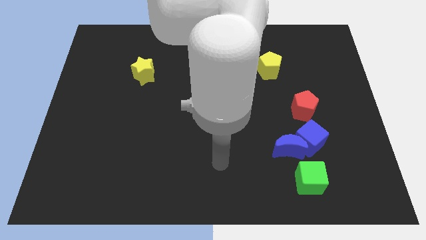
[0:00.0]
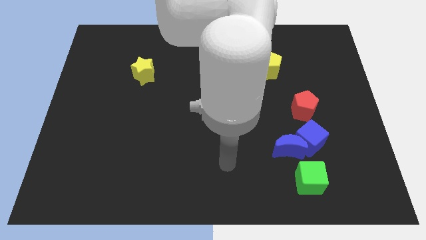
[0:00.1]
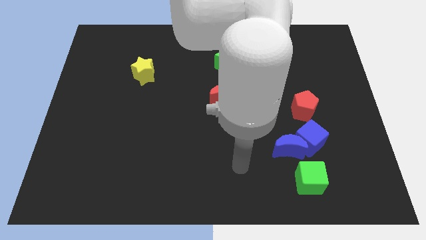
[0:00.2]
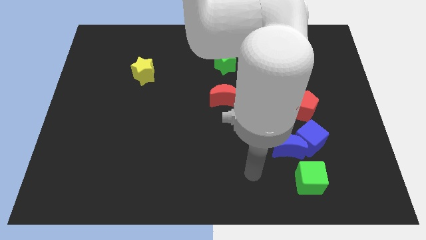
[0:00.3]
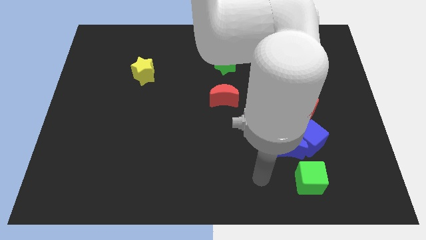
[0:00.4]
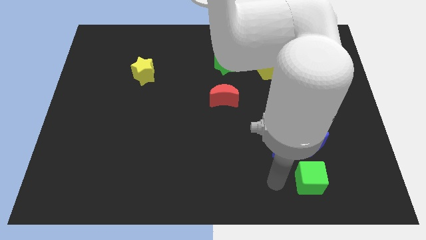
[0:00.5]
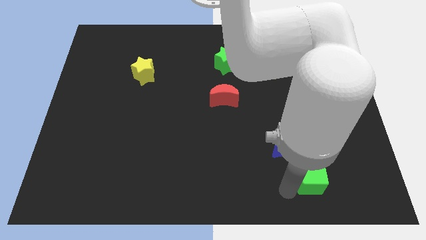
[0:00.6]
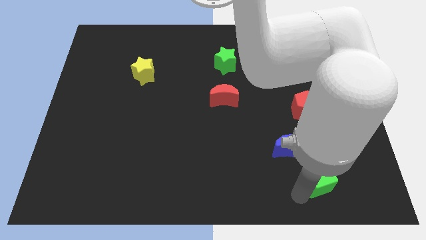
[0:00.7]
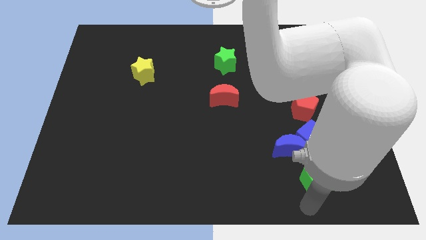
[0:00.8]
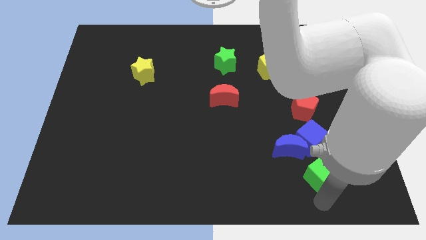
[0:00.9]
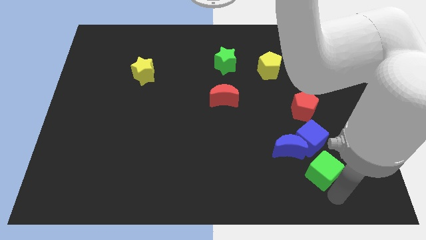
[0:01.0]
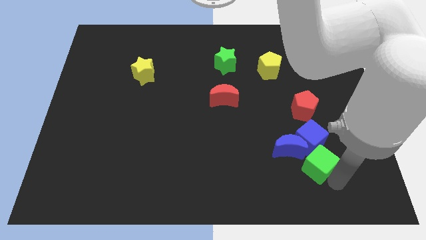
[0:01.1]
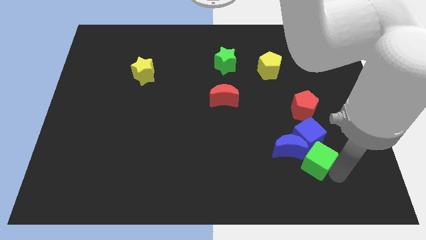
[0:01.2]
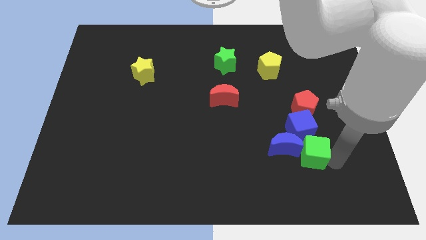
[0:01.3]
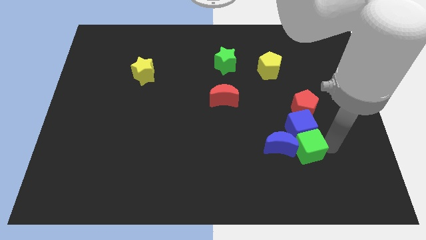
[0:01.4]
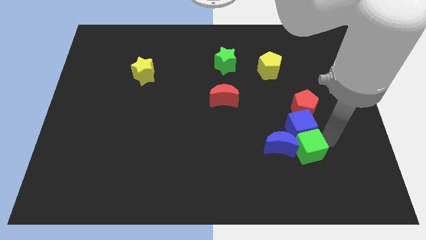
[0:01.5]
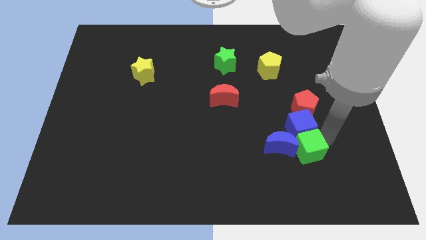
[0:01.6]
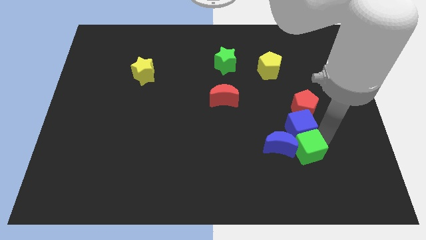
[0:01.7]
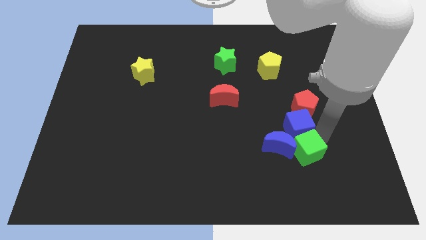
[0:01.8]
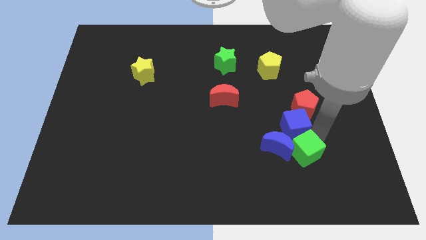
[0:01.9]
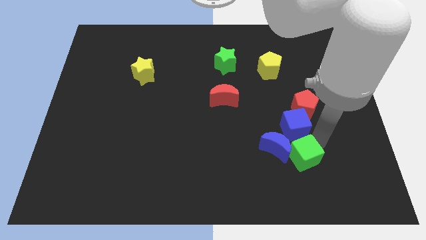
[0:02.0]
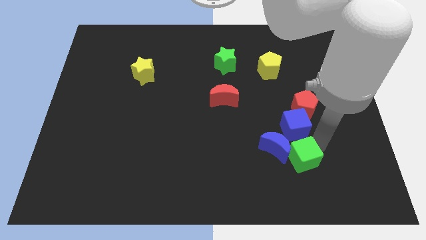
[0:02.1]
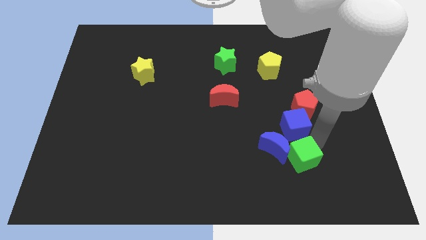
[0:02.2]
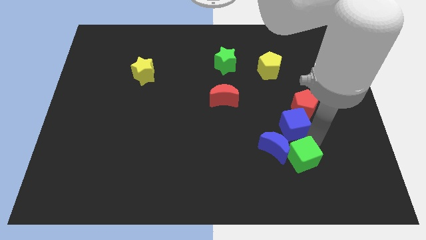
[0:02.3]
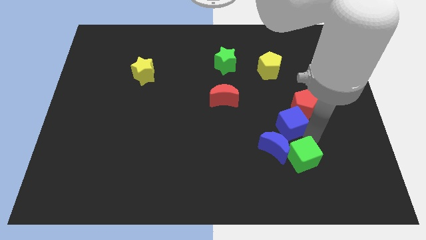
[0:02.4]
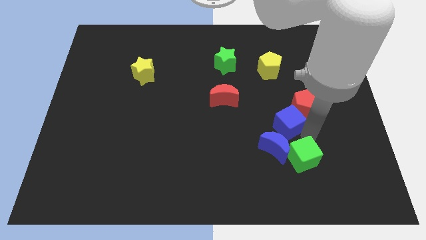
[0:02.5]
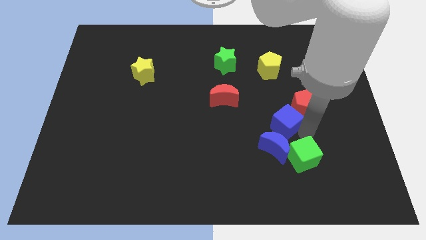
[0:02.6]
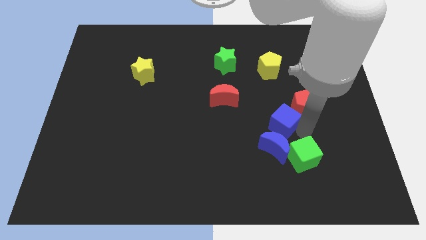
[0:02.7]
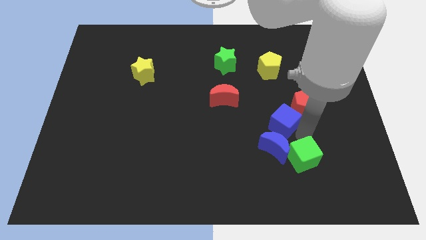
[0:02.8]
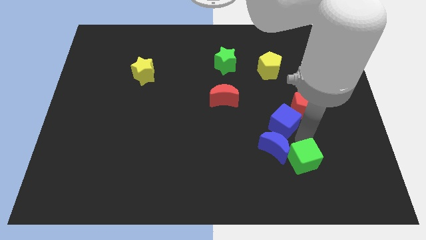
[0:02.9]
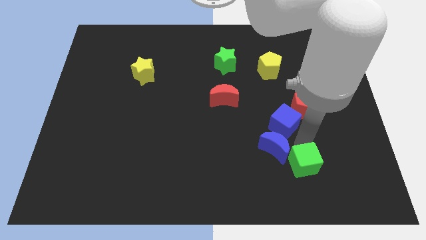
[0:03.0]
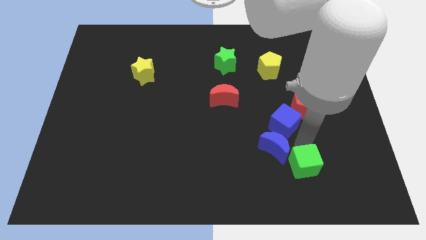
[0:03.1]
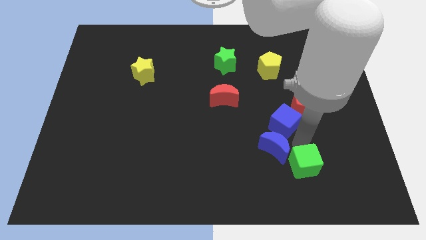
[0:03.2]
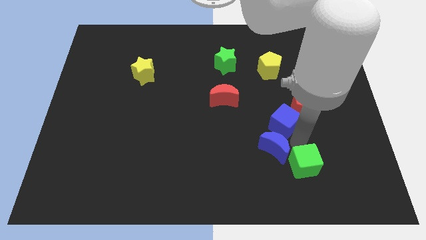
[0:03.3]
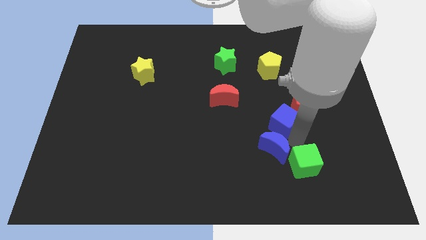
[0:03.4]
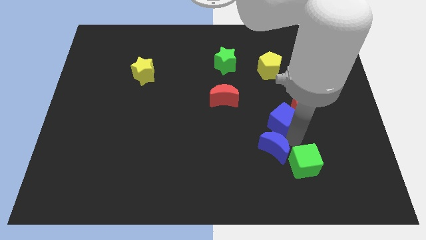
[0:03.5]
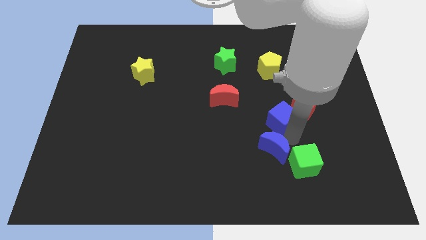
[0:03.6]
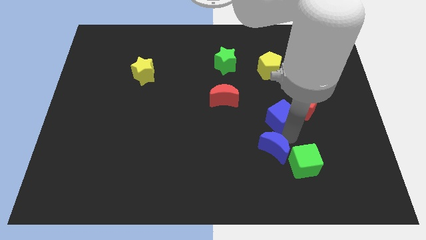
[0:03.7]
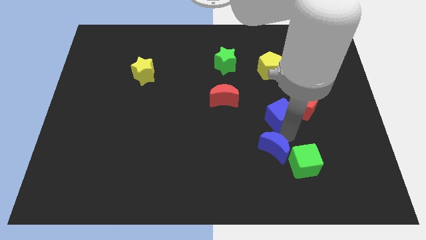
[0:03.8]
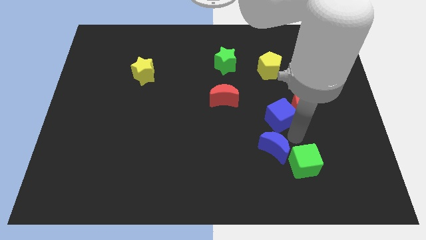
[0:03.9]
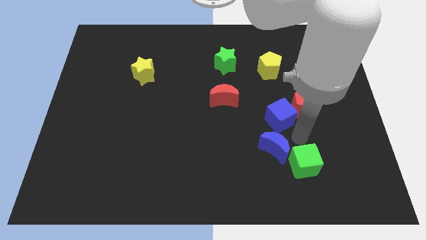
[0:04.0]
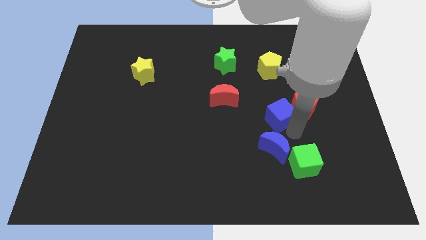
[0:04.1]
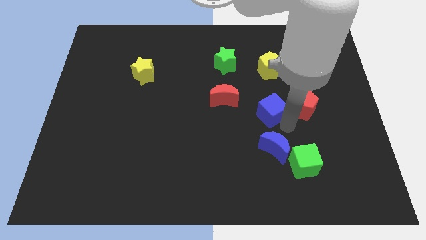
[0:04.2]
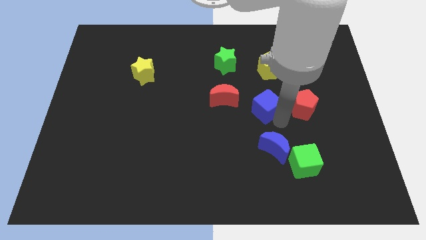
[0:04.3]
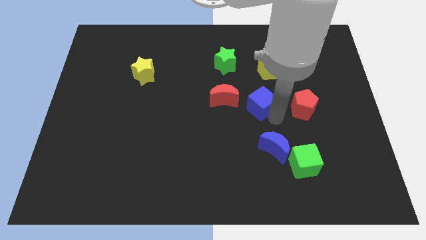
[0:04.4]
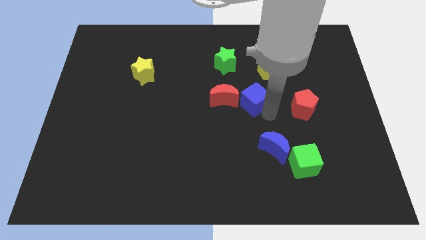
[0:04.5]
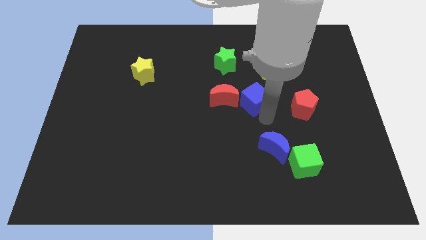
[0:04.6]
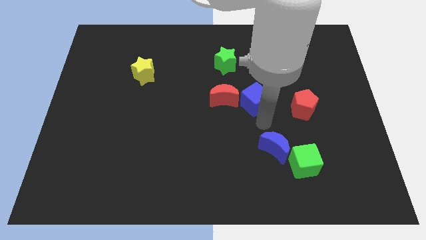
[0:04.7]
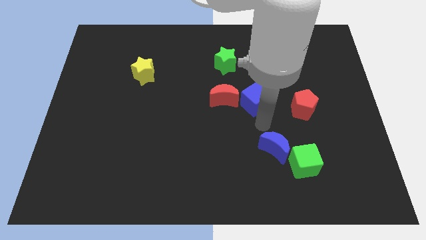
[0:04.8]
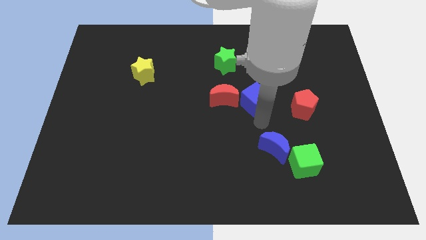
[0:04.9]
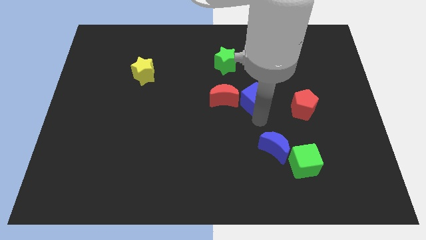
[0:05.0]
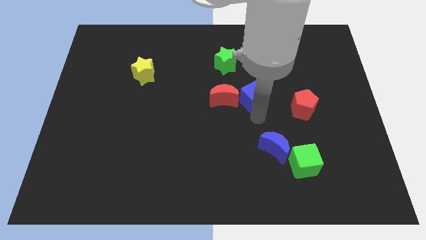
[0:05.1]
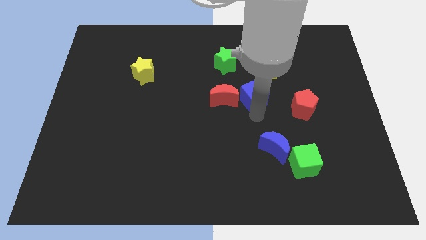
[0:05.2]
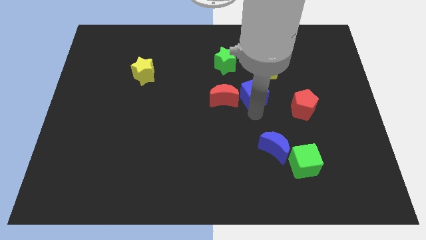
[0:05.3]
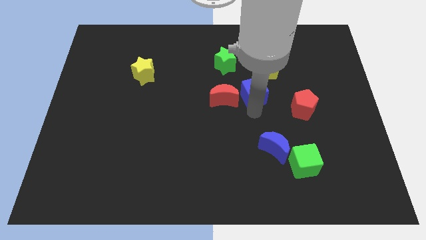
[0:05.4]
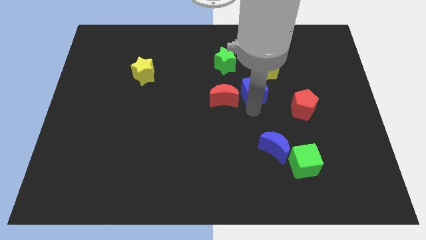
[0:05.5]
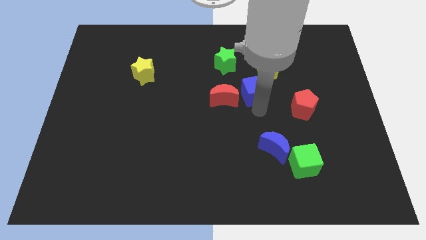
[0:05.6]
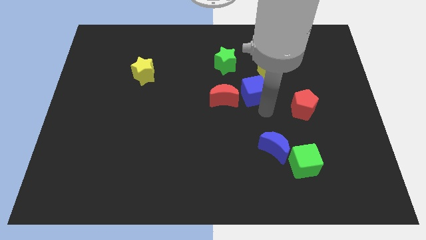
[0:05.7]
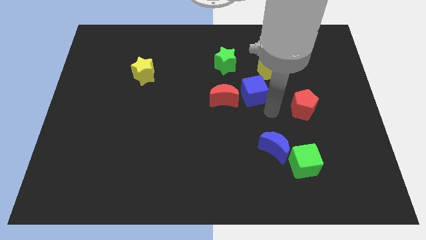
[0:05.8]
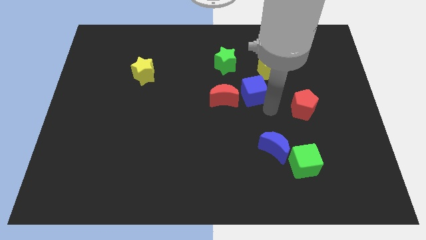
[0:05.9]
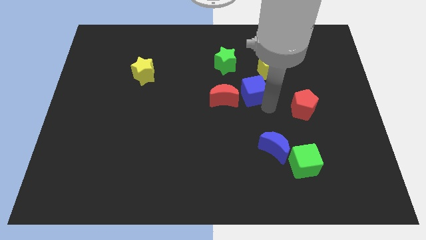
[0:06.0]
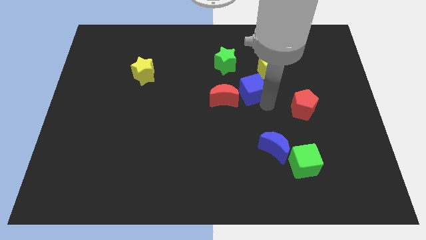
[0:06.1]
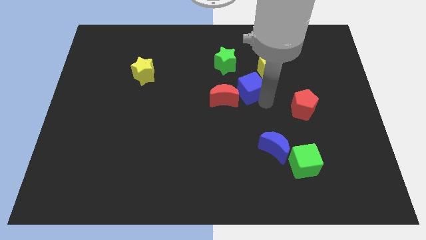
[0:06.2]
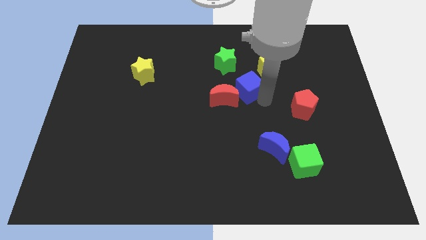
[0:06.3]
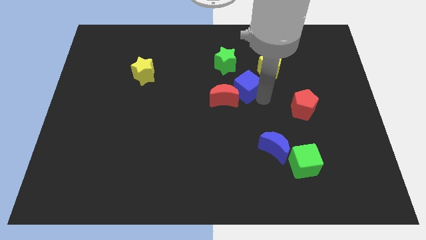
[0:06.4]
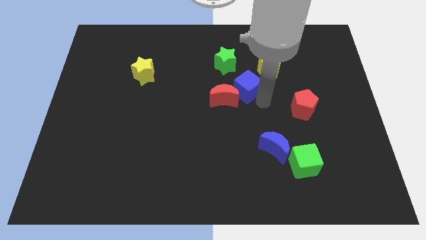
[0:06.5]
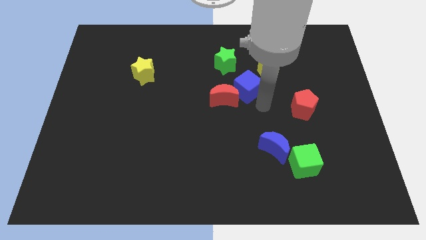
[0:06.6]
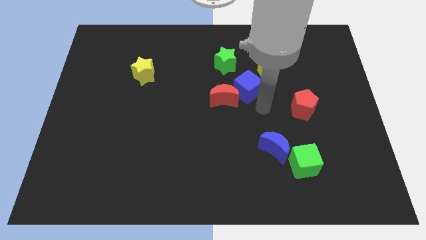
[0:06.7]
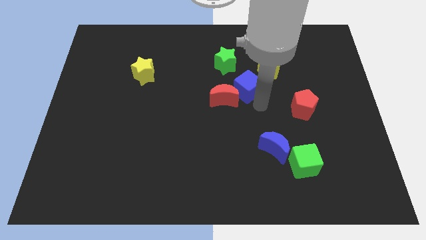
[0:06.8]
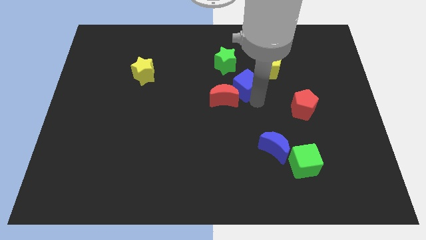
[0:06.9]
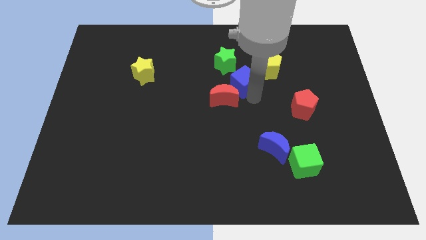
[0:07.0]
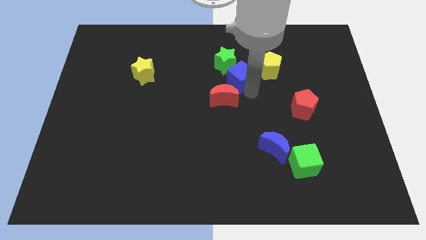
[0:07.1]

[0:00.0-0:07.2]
push the blue cube to the left of the yellow pentagon
